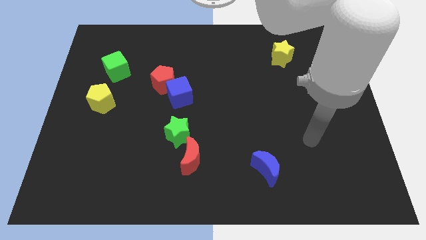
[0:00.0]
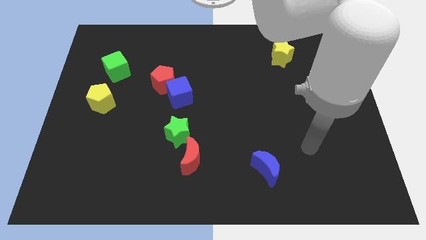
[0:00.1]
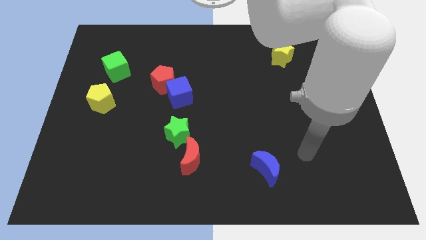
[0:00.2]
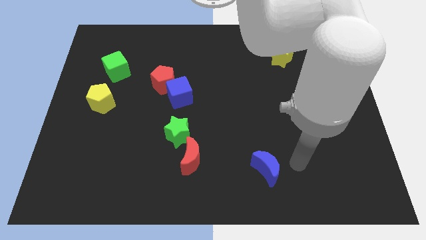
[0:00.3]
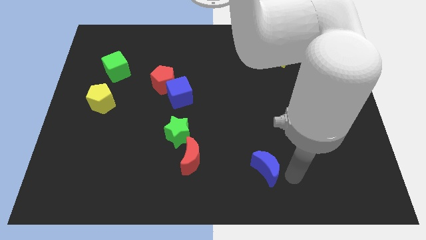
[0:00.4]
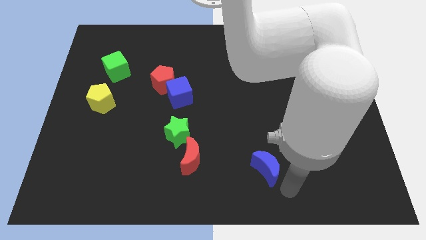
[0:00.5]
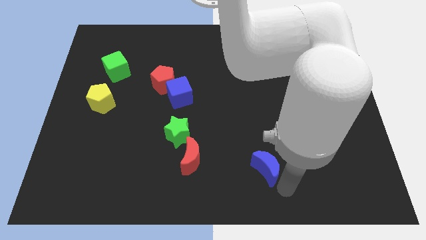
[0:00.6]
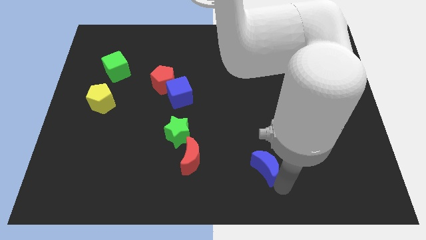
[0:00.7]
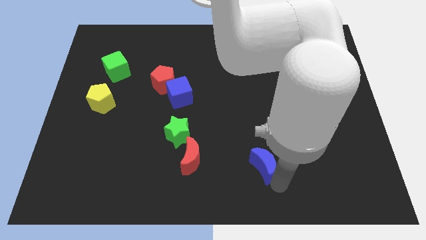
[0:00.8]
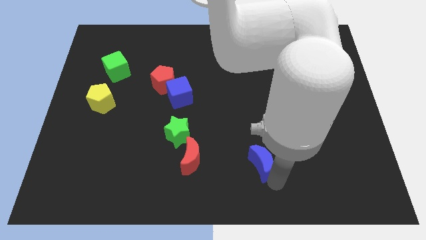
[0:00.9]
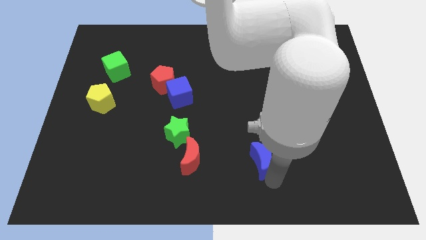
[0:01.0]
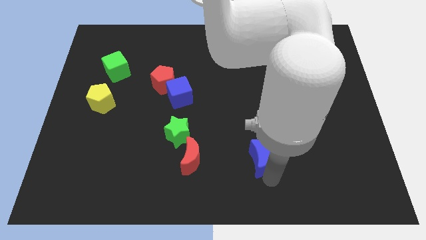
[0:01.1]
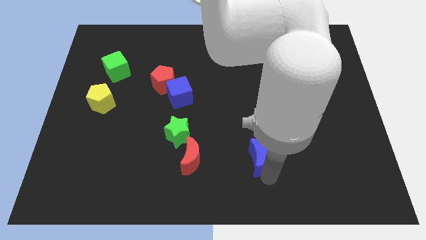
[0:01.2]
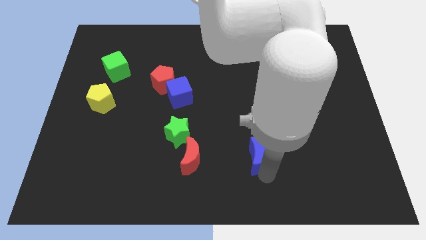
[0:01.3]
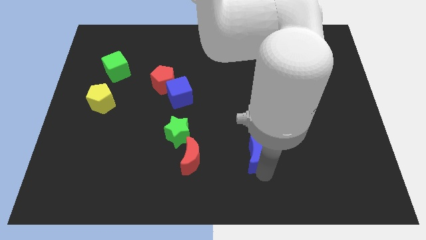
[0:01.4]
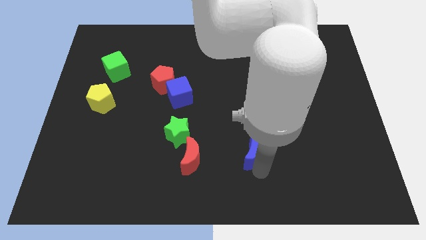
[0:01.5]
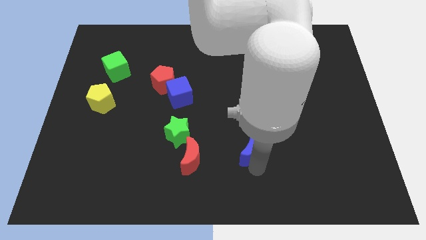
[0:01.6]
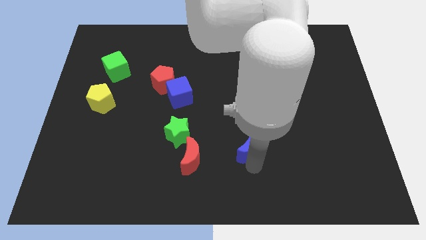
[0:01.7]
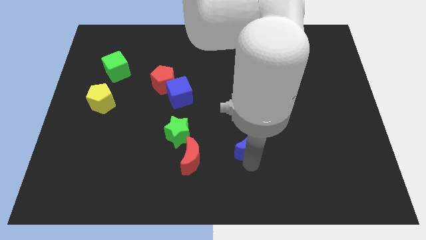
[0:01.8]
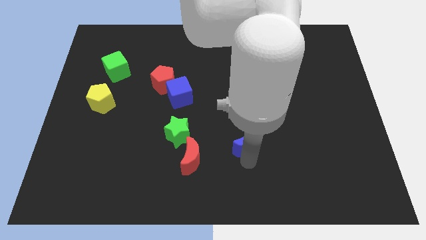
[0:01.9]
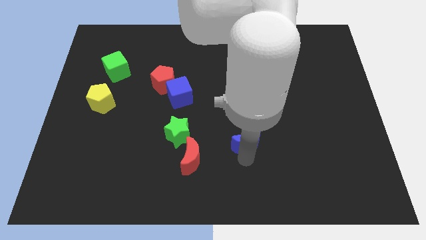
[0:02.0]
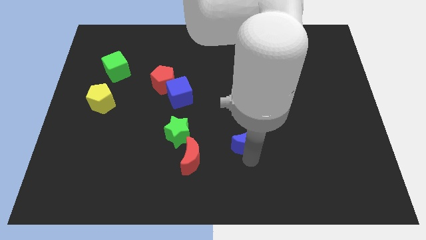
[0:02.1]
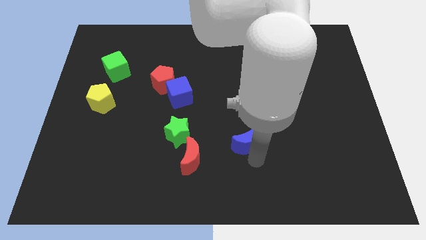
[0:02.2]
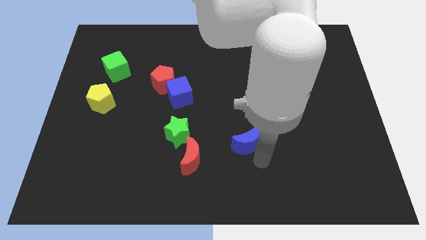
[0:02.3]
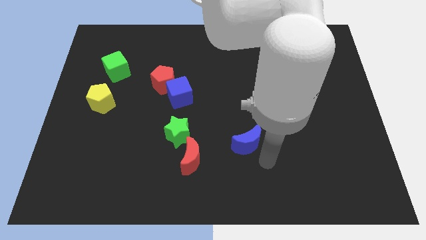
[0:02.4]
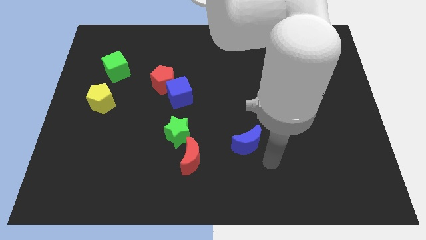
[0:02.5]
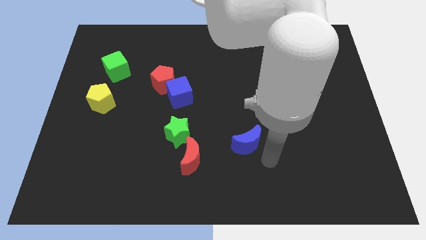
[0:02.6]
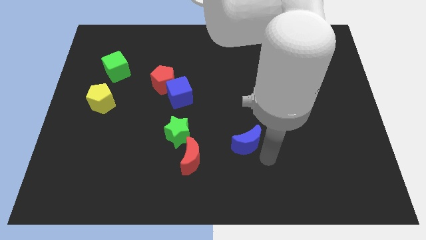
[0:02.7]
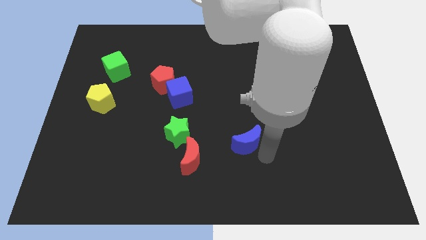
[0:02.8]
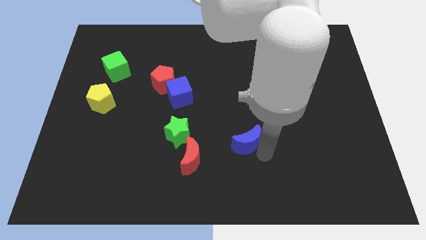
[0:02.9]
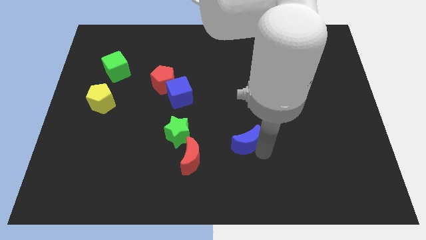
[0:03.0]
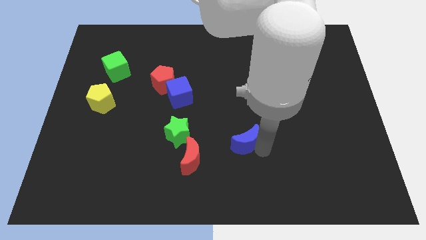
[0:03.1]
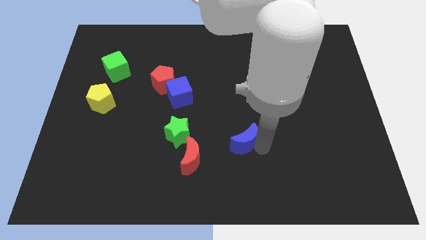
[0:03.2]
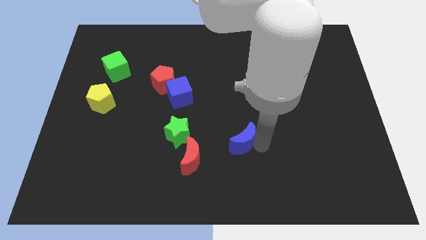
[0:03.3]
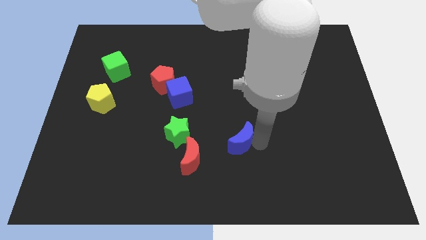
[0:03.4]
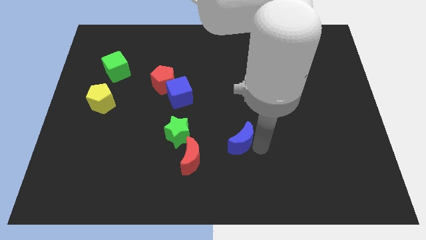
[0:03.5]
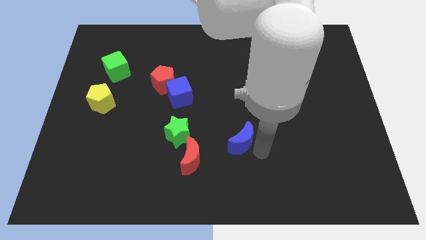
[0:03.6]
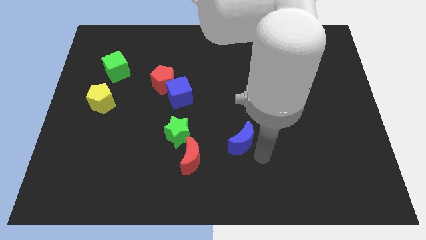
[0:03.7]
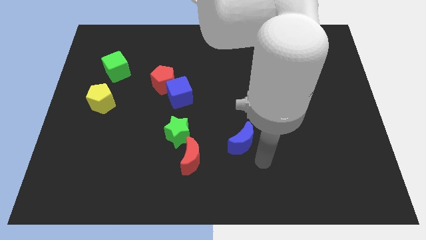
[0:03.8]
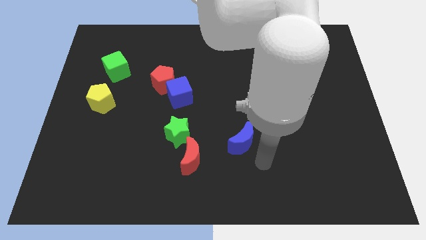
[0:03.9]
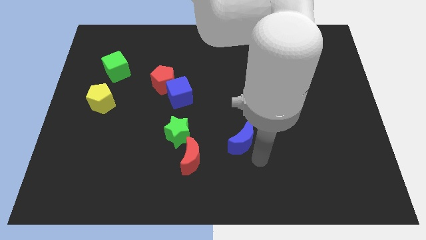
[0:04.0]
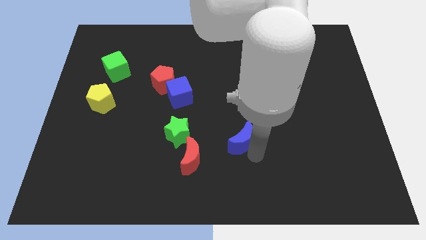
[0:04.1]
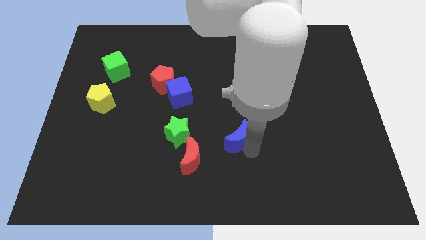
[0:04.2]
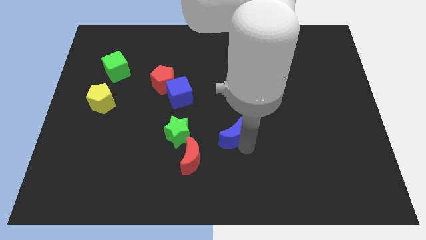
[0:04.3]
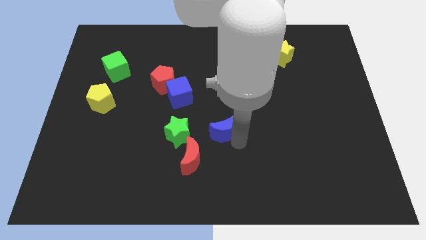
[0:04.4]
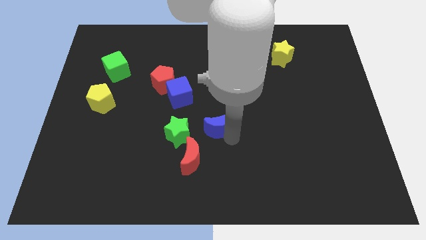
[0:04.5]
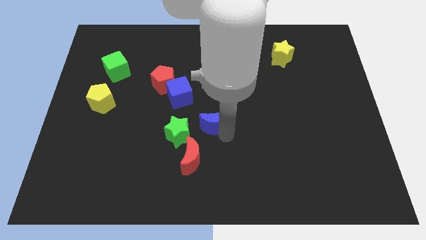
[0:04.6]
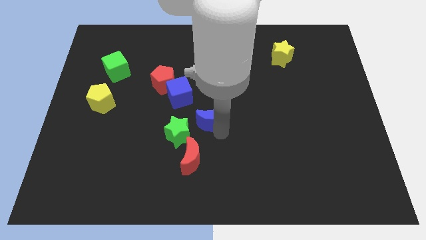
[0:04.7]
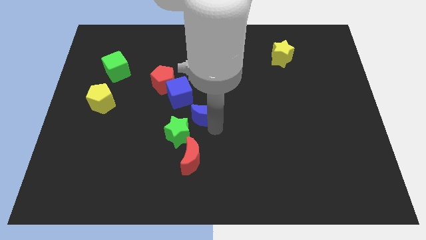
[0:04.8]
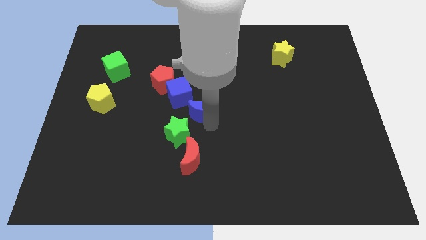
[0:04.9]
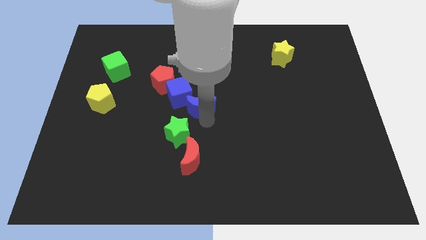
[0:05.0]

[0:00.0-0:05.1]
push the blue moon above the green star

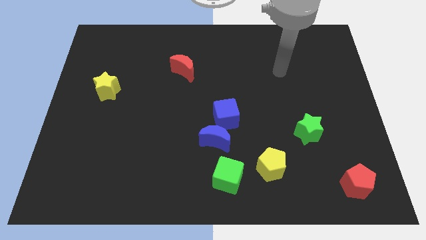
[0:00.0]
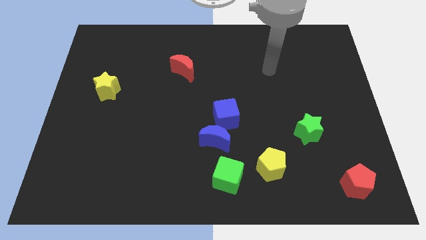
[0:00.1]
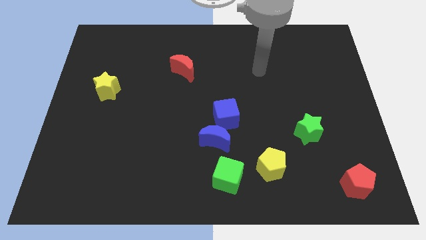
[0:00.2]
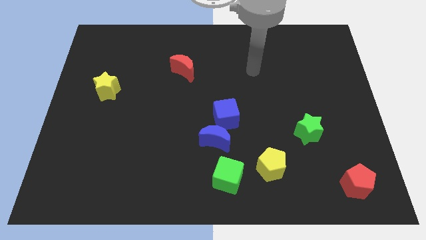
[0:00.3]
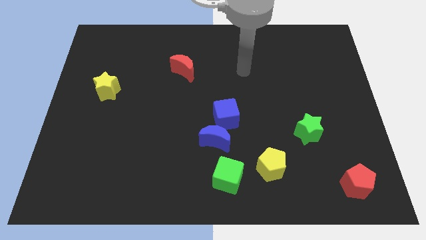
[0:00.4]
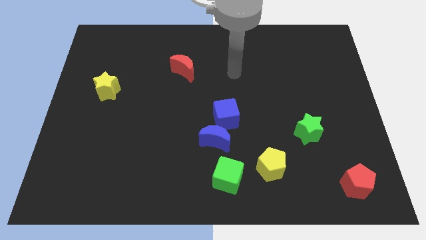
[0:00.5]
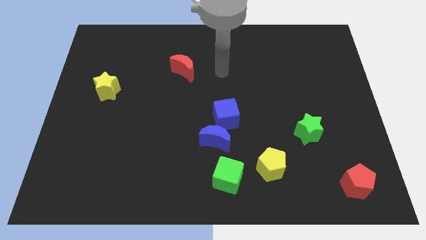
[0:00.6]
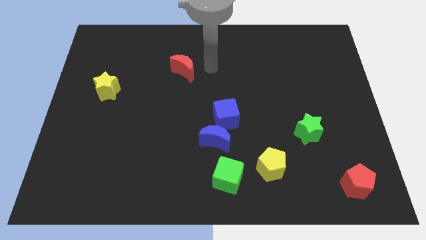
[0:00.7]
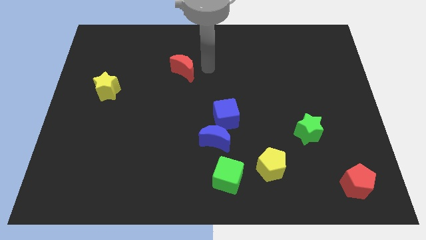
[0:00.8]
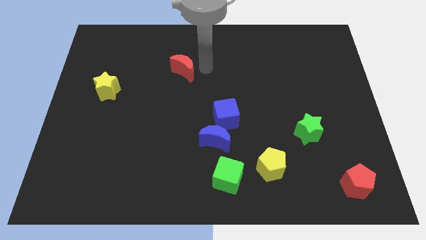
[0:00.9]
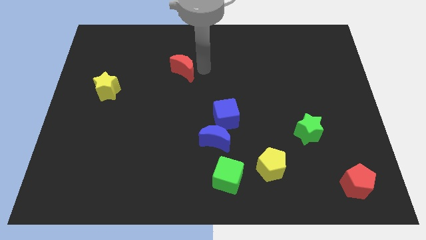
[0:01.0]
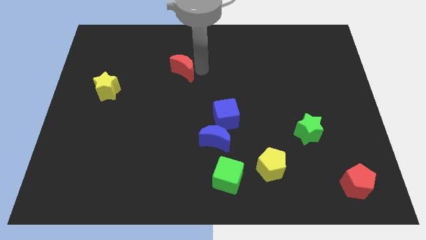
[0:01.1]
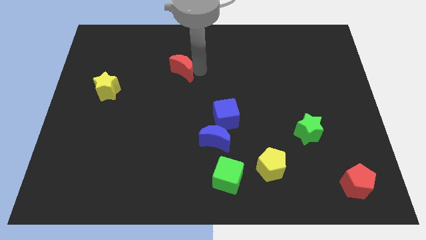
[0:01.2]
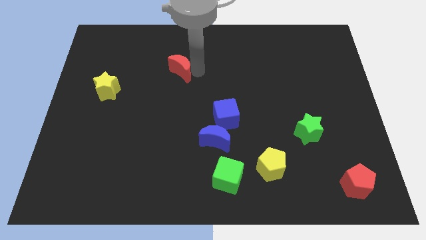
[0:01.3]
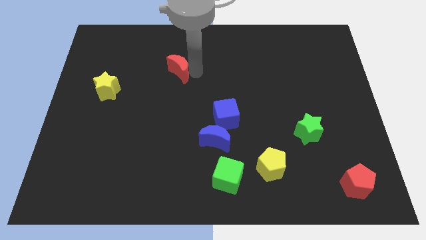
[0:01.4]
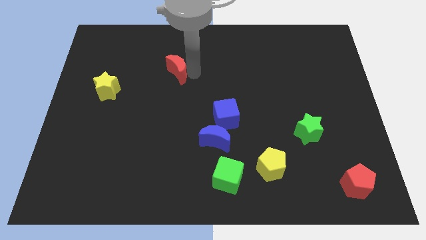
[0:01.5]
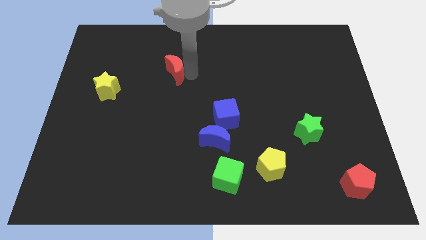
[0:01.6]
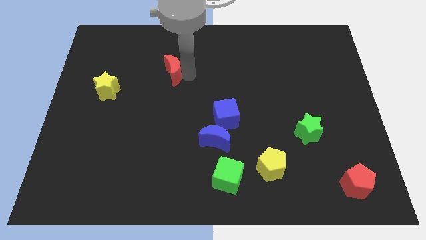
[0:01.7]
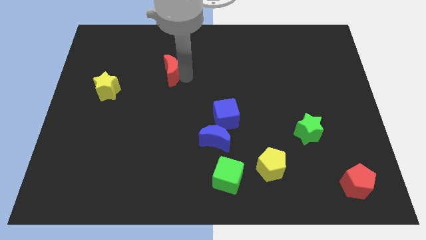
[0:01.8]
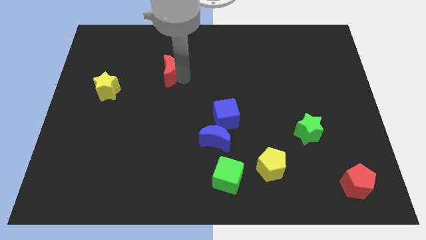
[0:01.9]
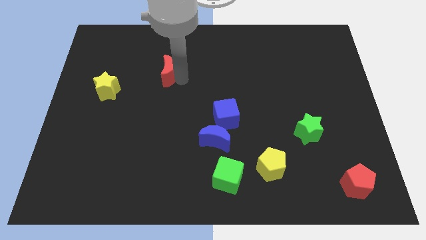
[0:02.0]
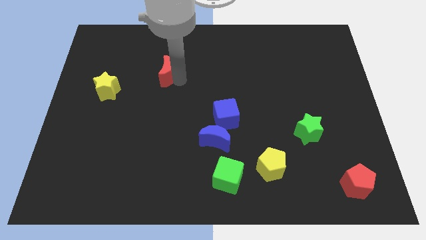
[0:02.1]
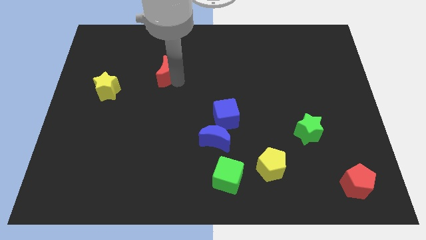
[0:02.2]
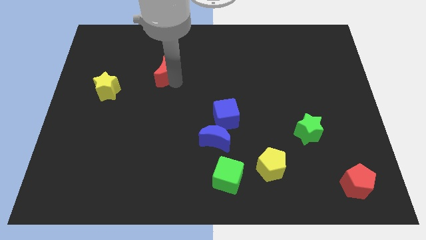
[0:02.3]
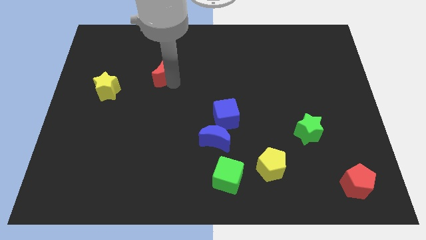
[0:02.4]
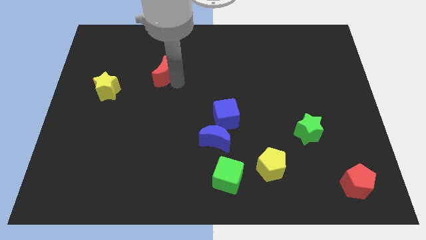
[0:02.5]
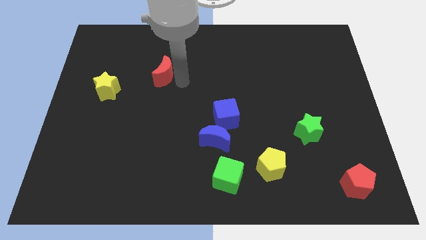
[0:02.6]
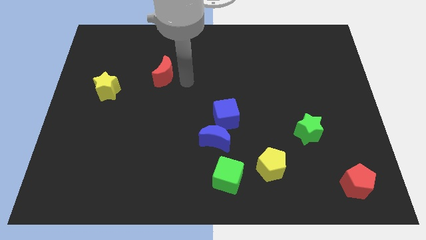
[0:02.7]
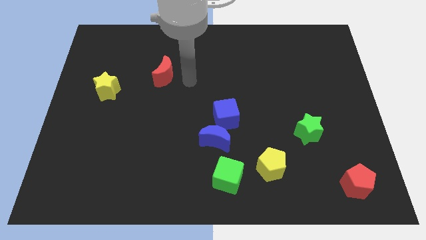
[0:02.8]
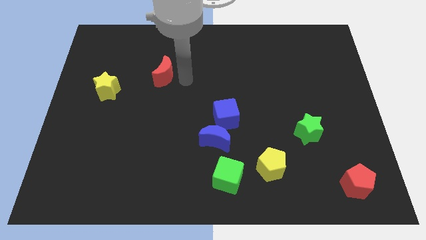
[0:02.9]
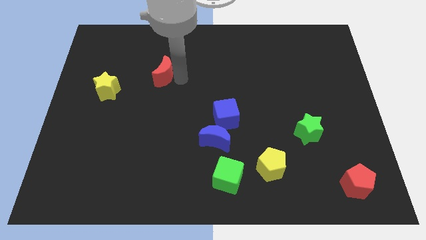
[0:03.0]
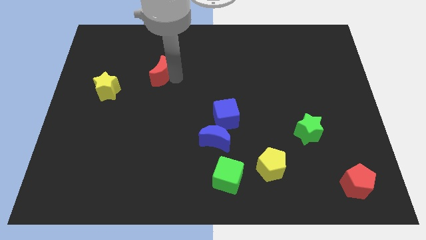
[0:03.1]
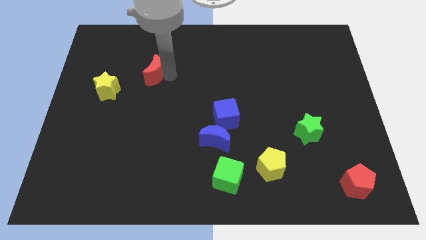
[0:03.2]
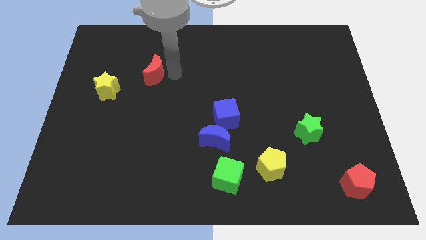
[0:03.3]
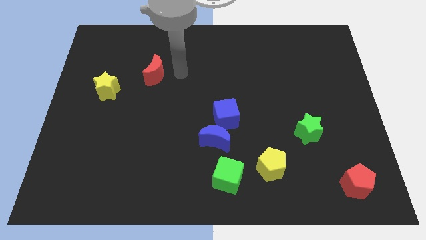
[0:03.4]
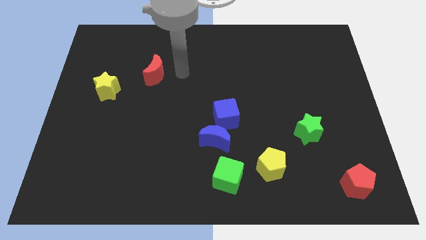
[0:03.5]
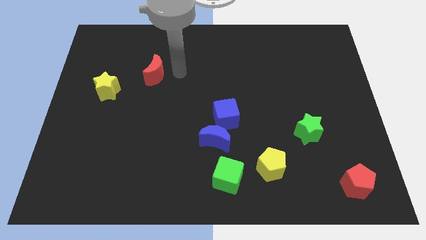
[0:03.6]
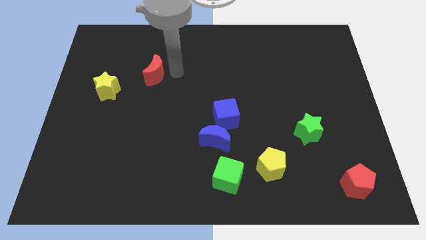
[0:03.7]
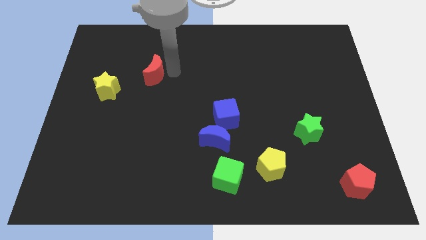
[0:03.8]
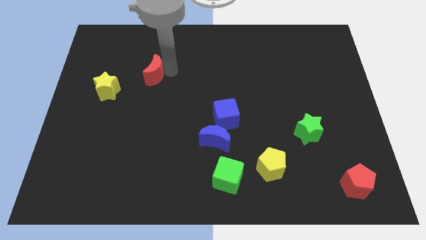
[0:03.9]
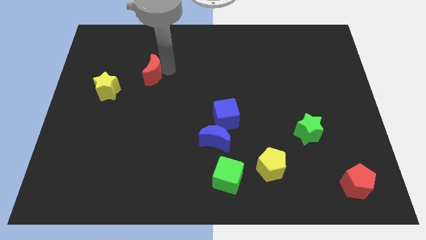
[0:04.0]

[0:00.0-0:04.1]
put the red moon to the top right side of the yellow star
